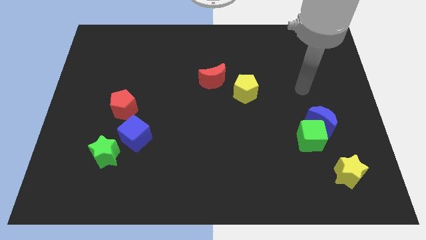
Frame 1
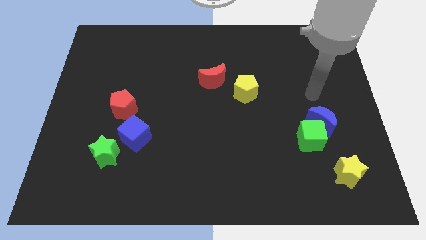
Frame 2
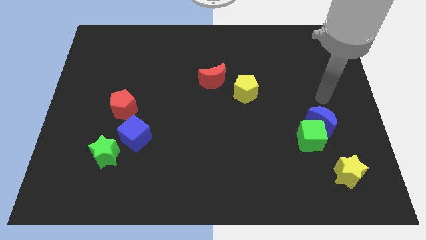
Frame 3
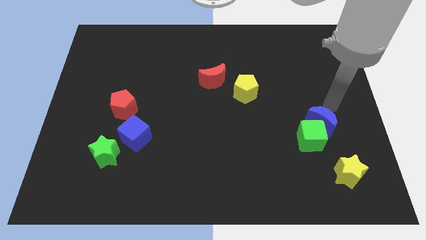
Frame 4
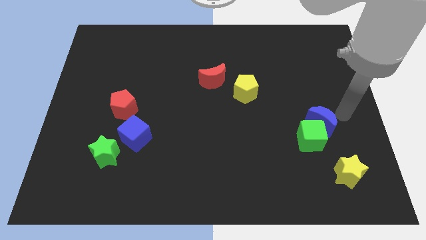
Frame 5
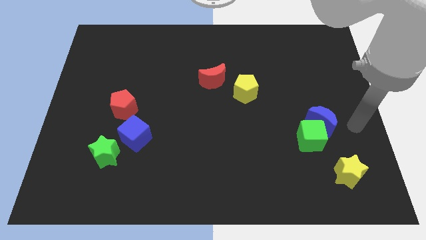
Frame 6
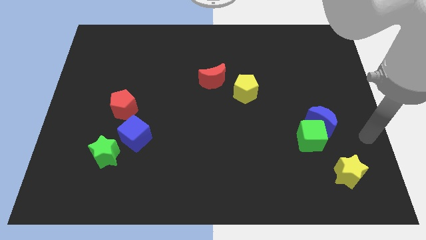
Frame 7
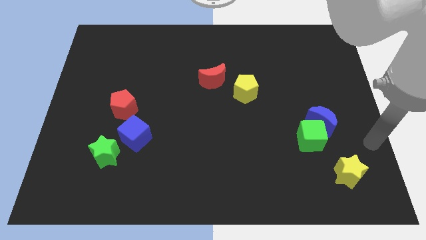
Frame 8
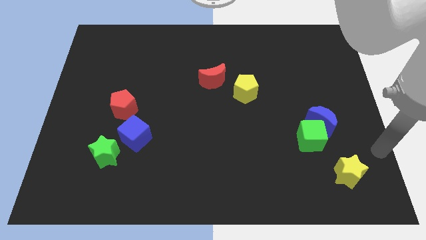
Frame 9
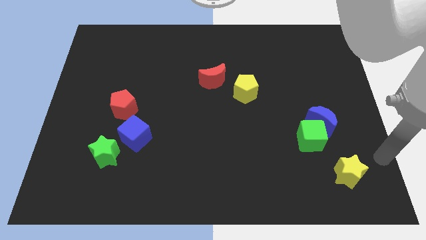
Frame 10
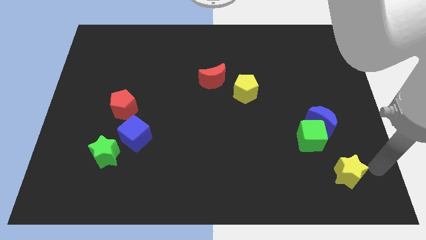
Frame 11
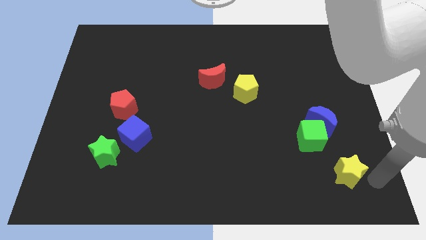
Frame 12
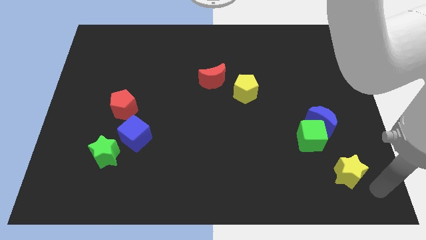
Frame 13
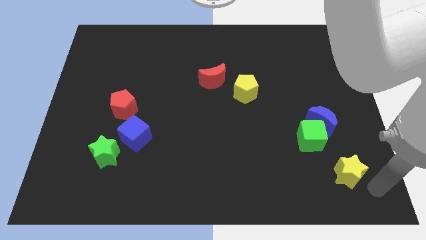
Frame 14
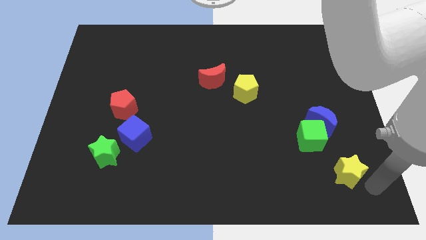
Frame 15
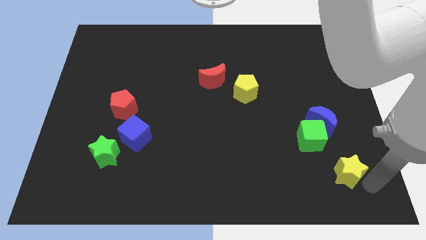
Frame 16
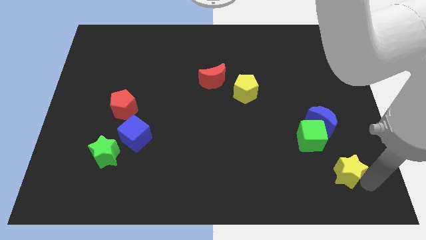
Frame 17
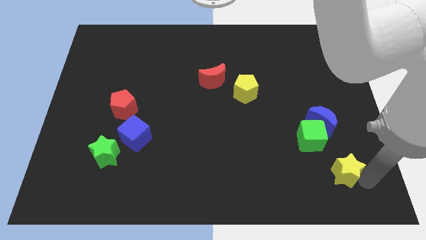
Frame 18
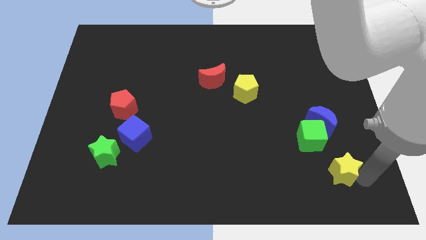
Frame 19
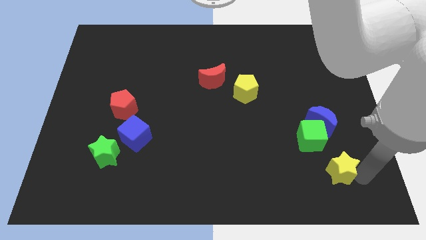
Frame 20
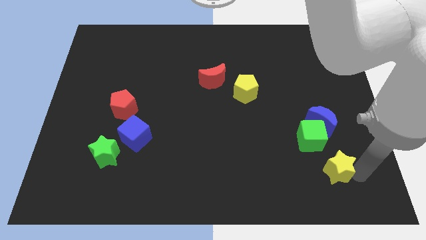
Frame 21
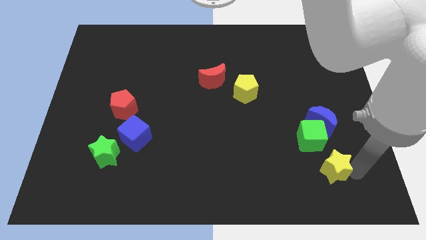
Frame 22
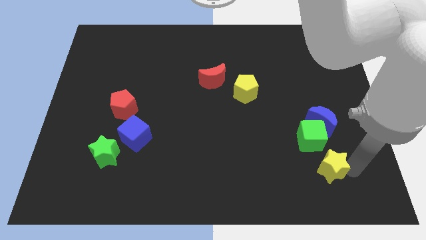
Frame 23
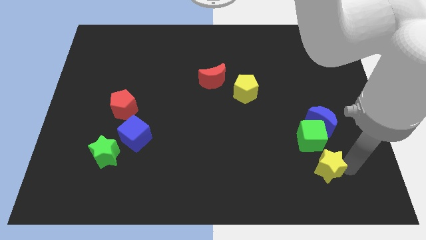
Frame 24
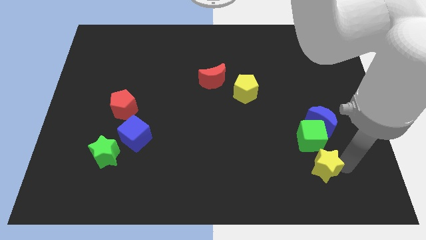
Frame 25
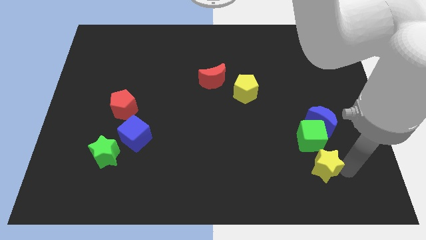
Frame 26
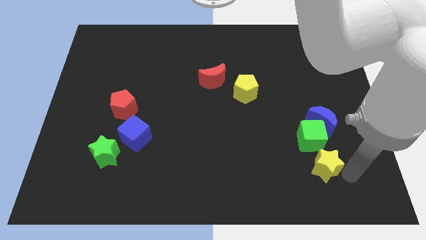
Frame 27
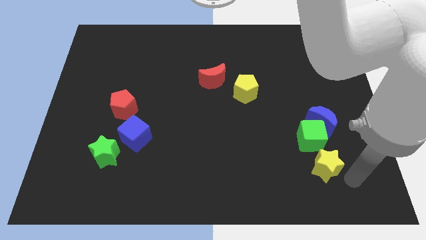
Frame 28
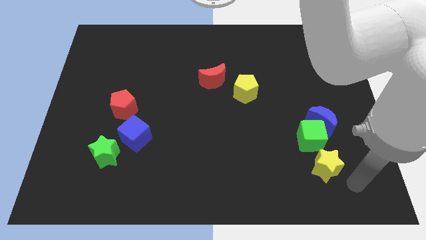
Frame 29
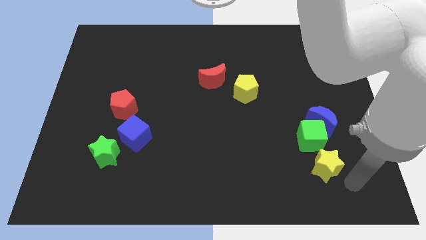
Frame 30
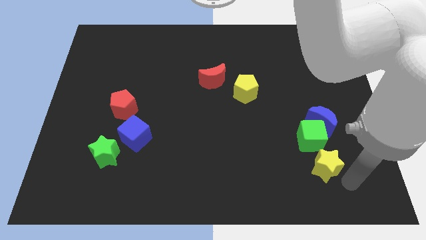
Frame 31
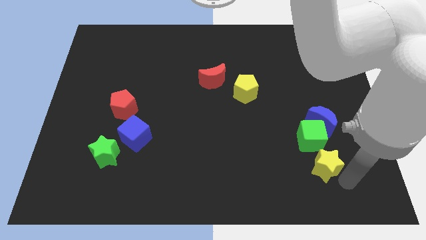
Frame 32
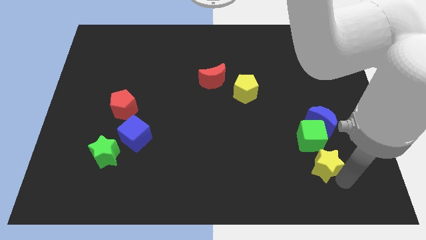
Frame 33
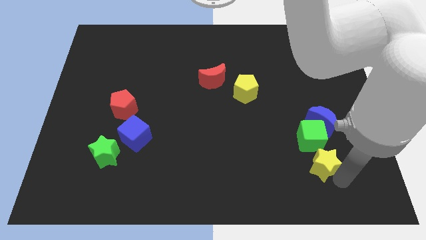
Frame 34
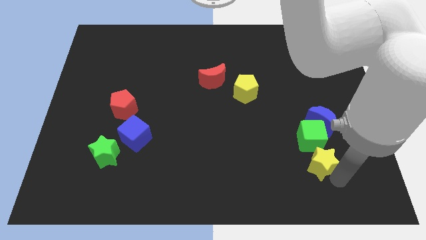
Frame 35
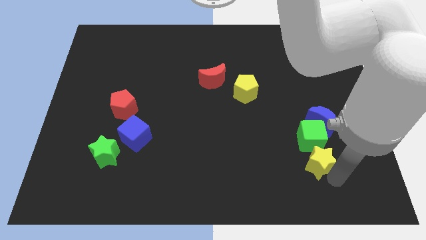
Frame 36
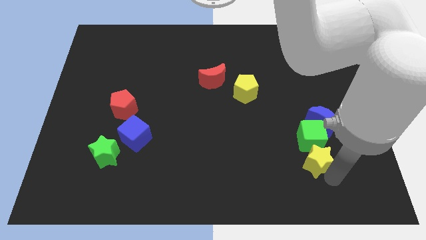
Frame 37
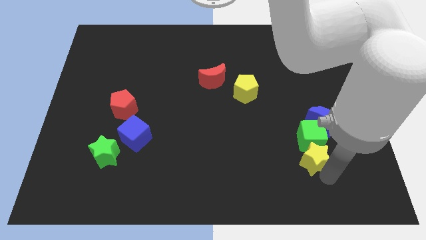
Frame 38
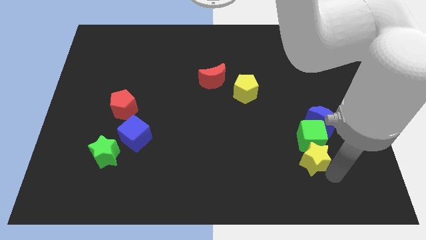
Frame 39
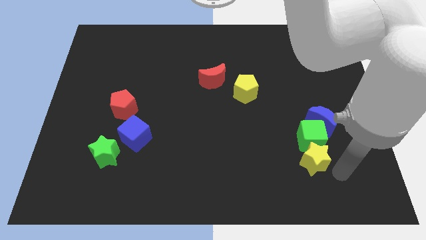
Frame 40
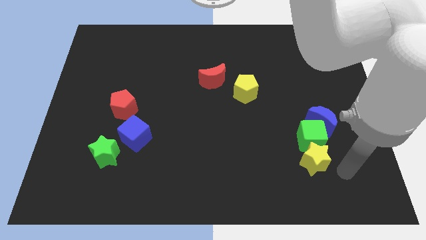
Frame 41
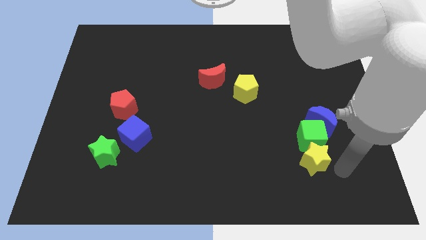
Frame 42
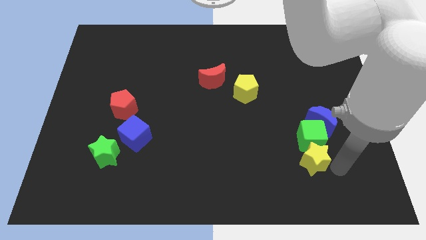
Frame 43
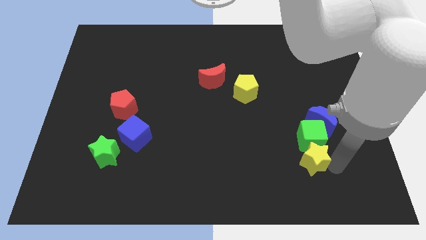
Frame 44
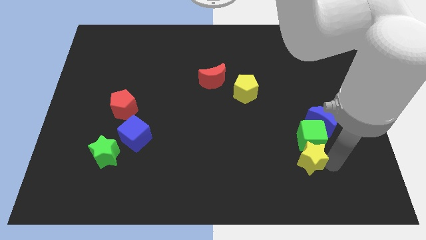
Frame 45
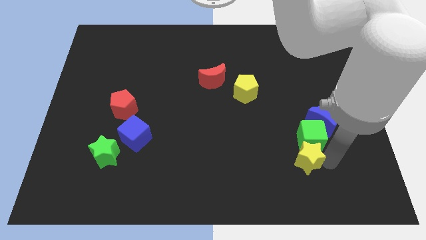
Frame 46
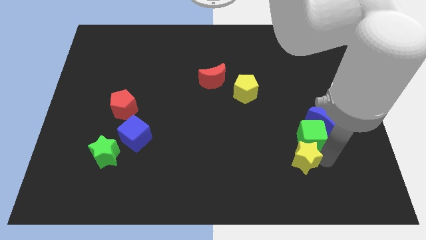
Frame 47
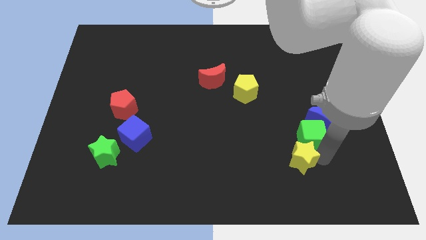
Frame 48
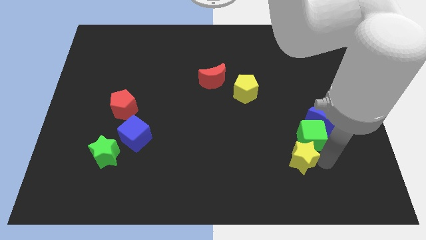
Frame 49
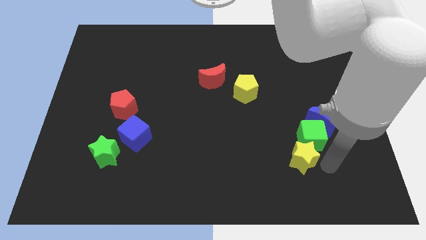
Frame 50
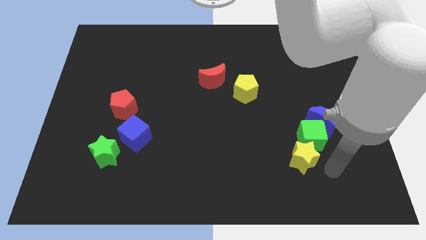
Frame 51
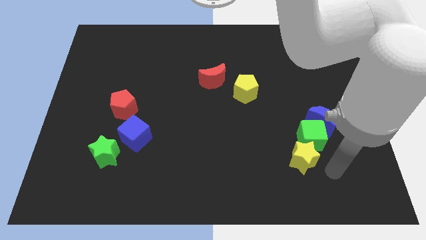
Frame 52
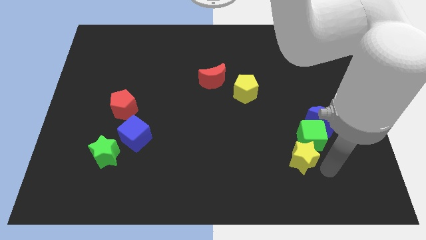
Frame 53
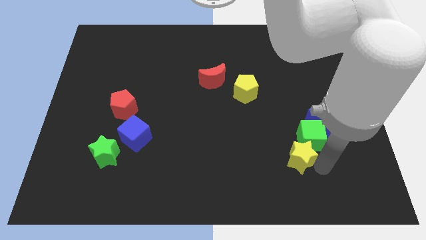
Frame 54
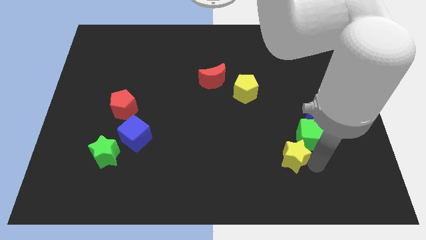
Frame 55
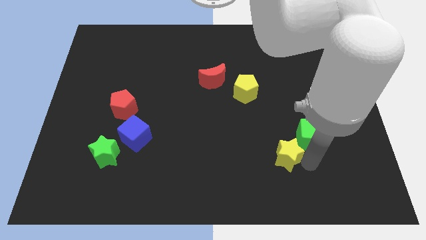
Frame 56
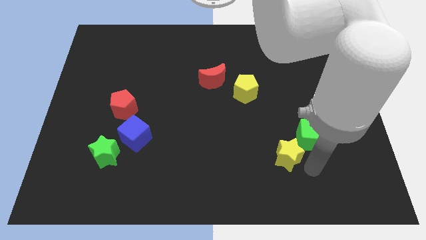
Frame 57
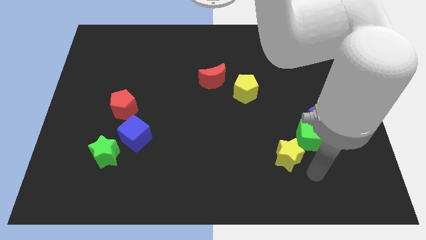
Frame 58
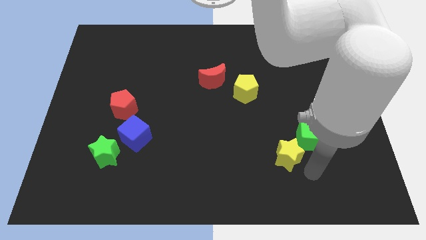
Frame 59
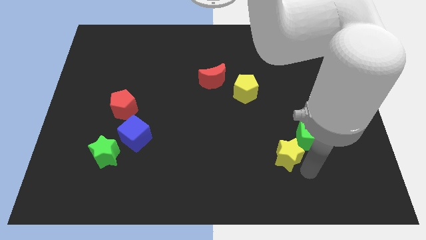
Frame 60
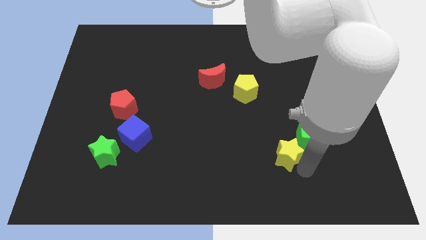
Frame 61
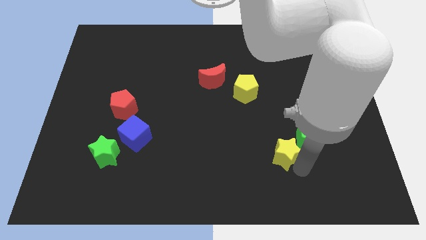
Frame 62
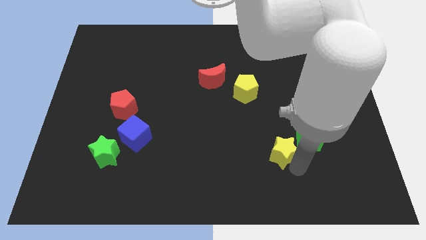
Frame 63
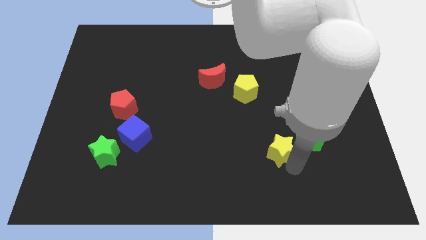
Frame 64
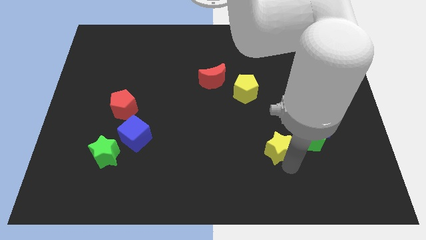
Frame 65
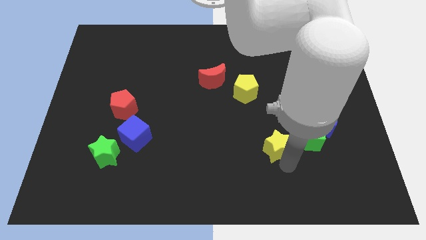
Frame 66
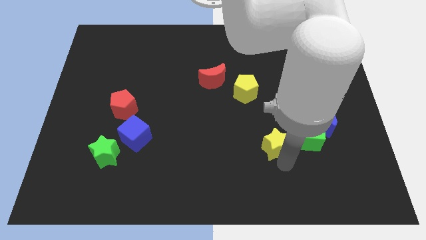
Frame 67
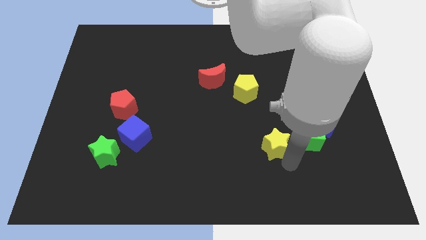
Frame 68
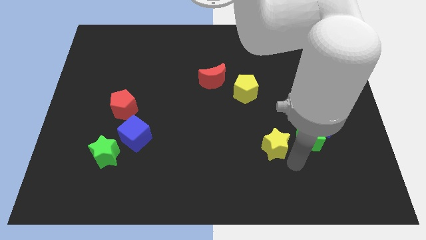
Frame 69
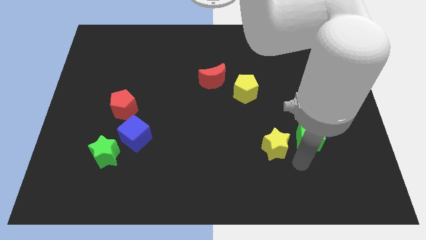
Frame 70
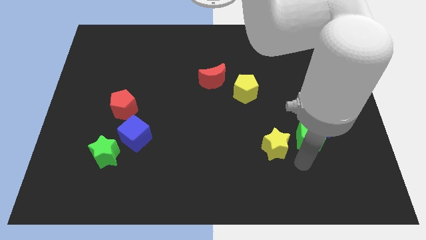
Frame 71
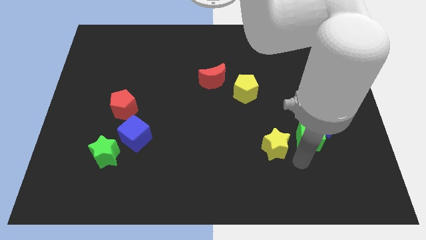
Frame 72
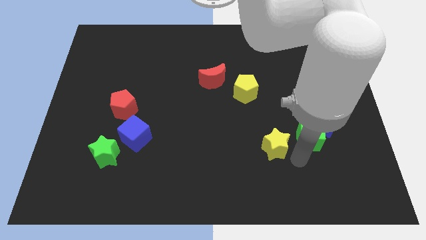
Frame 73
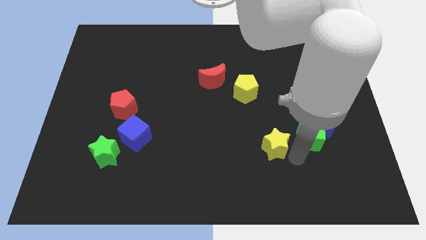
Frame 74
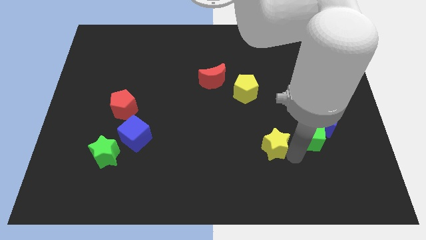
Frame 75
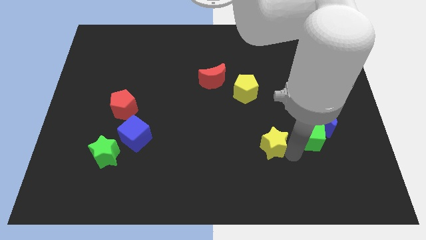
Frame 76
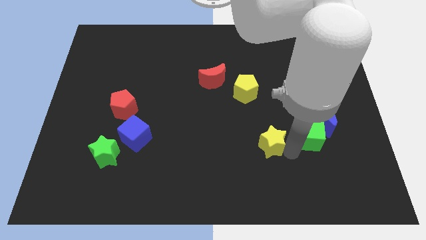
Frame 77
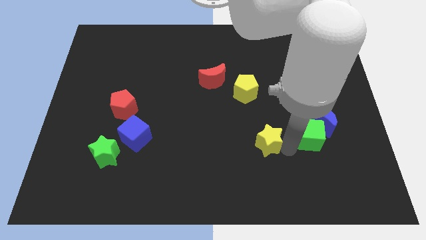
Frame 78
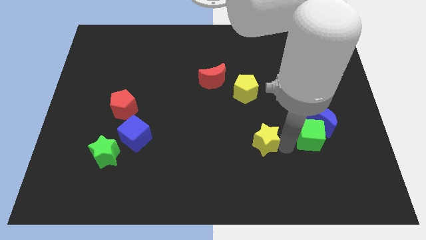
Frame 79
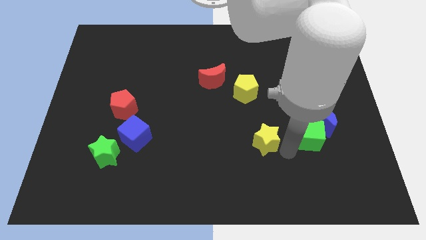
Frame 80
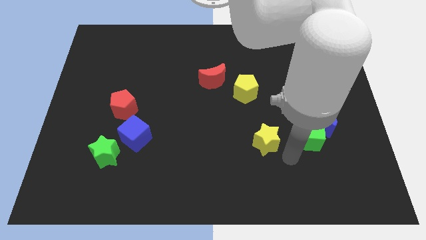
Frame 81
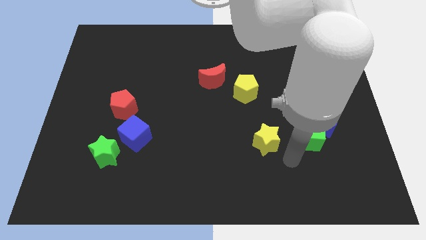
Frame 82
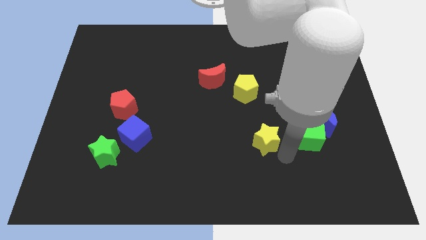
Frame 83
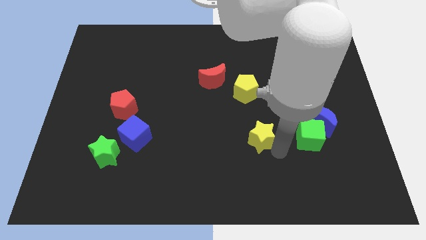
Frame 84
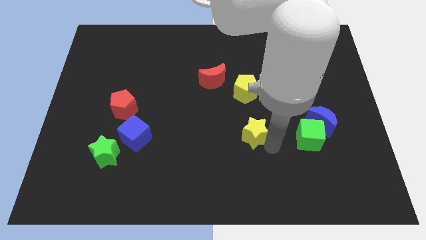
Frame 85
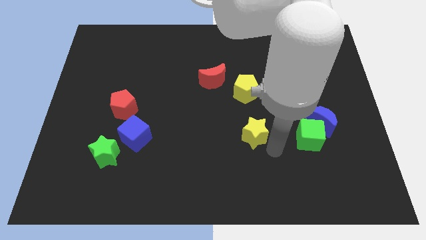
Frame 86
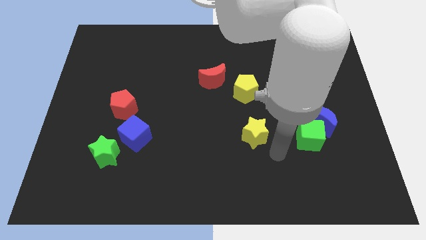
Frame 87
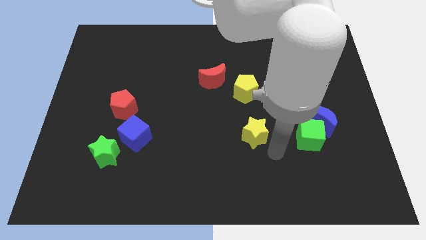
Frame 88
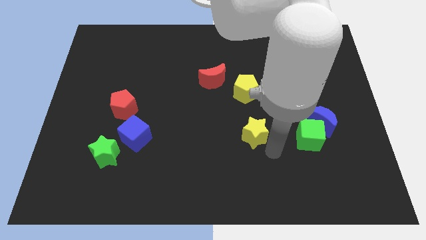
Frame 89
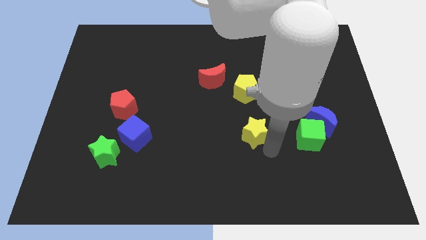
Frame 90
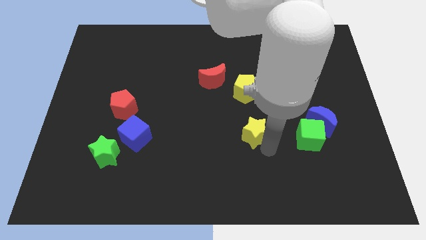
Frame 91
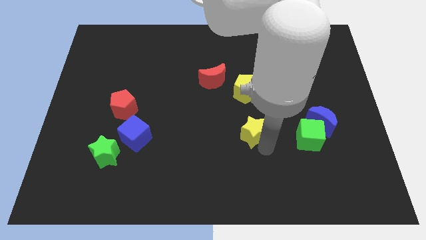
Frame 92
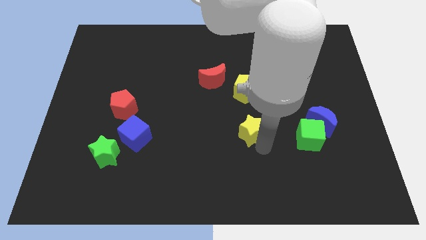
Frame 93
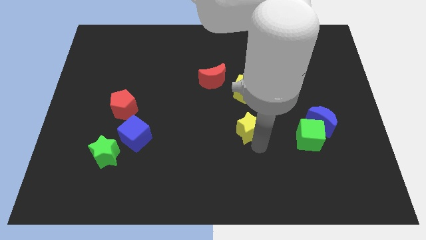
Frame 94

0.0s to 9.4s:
slide the yellow star to the center of the board
